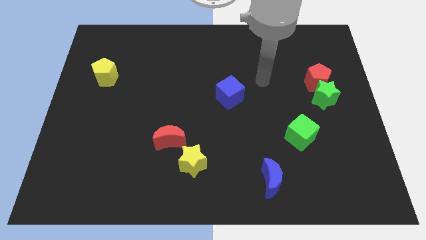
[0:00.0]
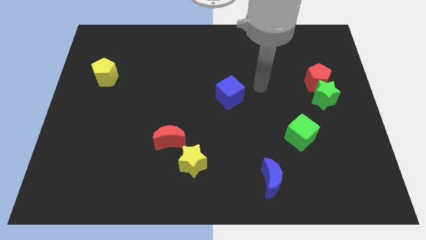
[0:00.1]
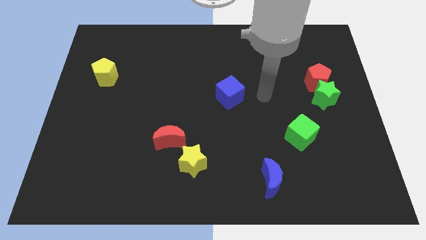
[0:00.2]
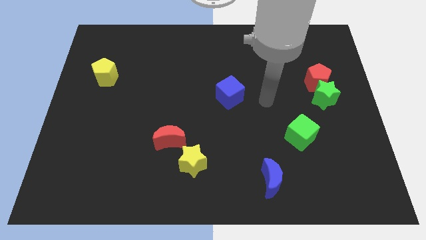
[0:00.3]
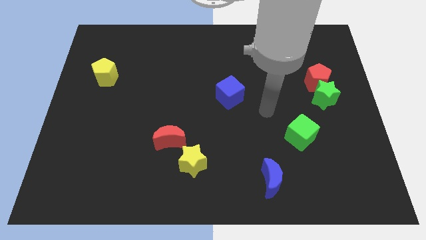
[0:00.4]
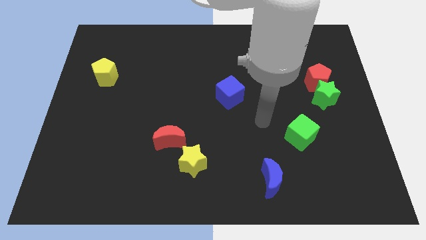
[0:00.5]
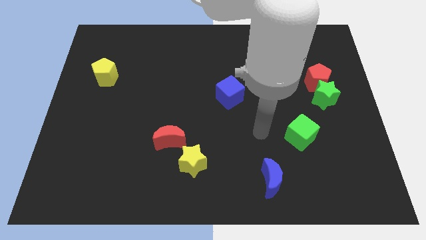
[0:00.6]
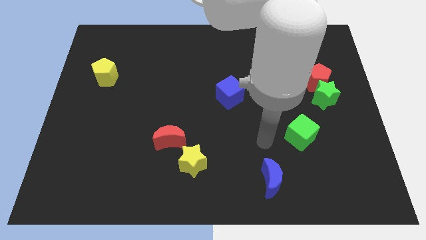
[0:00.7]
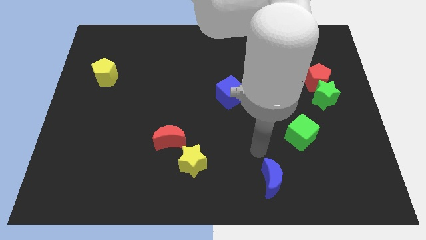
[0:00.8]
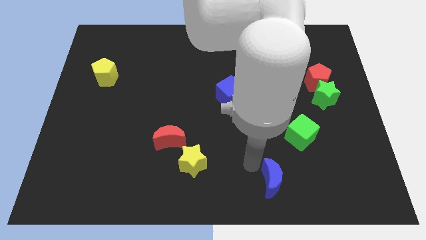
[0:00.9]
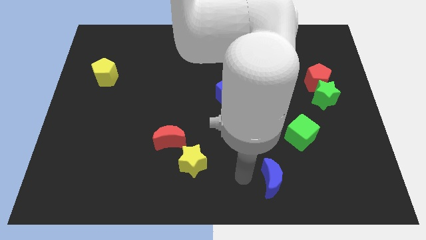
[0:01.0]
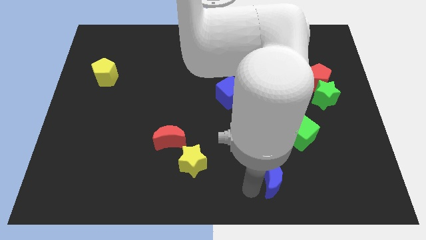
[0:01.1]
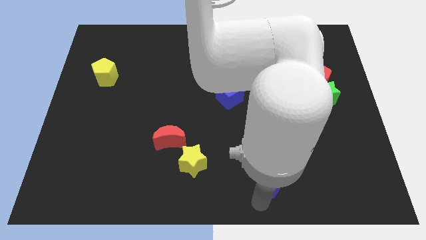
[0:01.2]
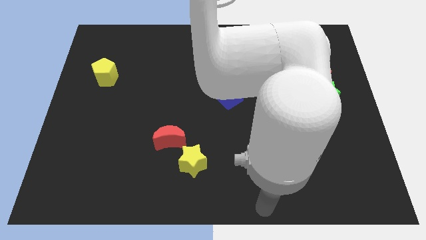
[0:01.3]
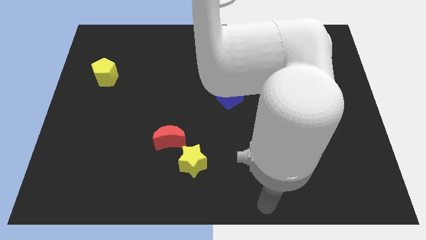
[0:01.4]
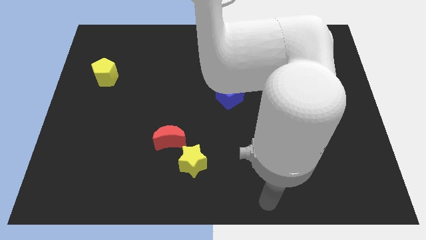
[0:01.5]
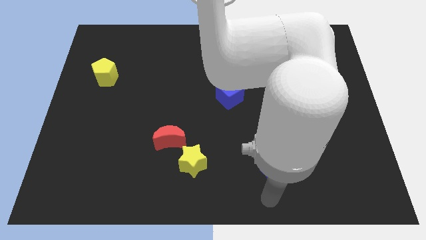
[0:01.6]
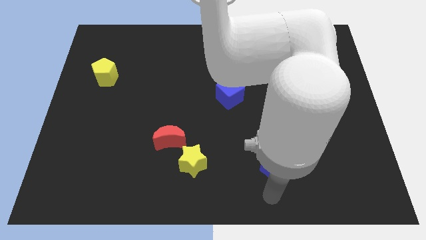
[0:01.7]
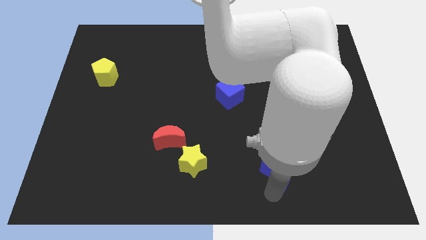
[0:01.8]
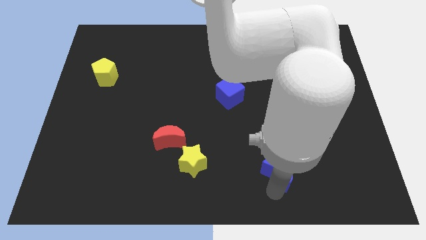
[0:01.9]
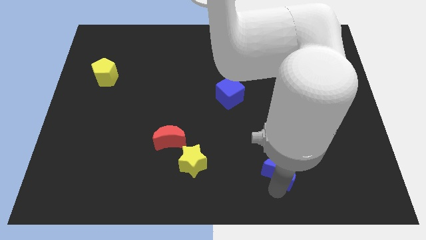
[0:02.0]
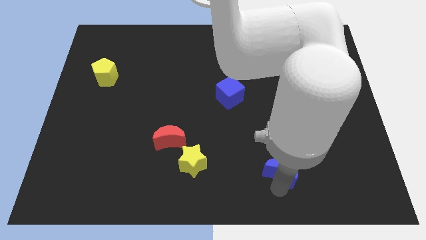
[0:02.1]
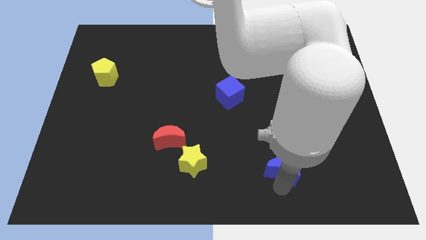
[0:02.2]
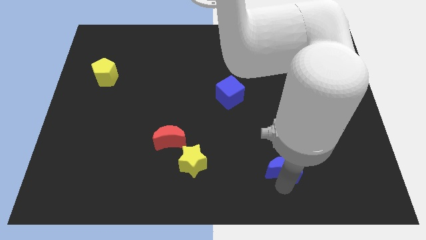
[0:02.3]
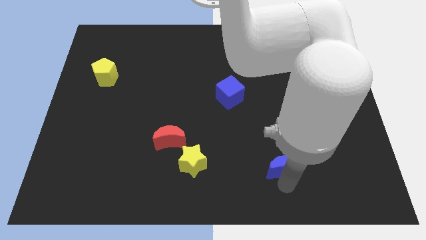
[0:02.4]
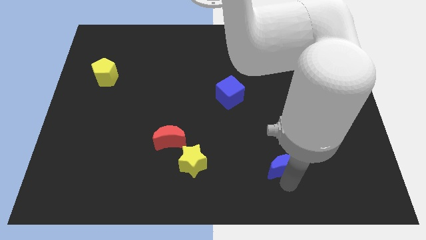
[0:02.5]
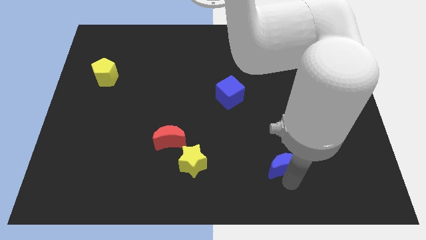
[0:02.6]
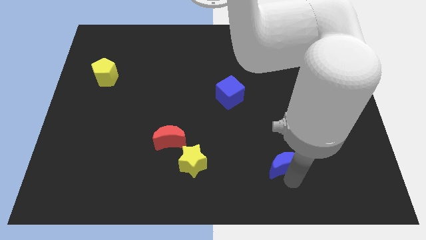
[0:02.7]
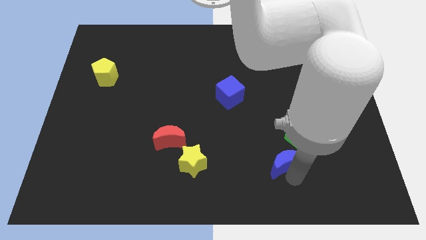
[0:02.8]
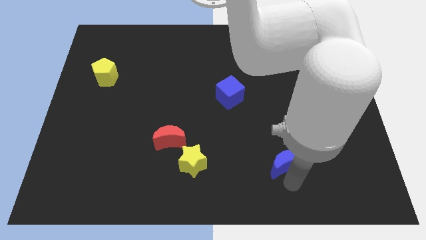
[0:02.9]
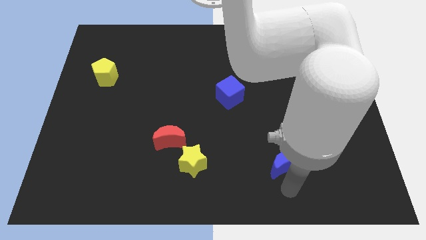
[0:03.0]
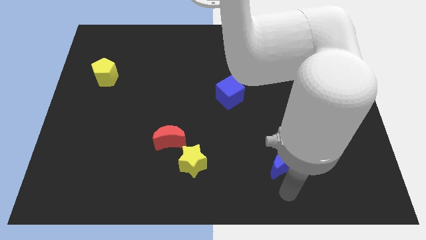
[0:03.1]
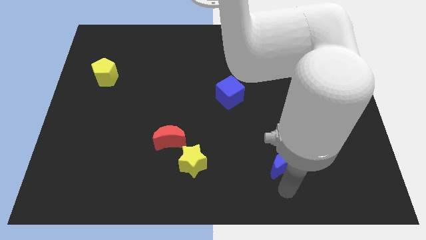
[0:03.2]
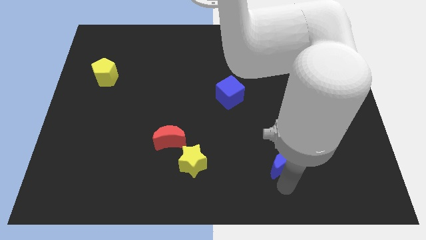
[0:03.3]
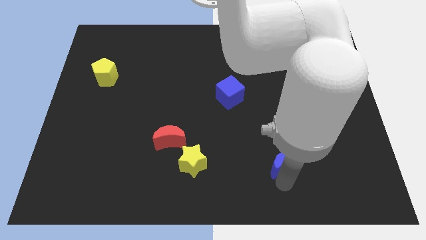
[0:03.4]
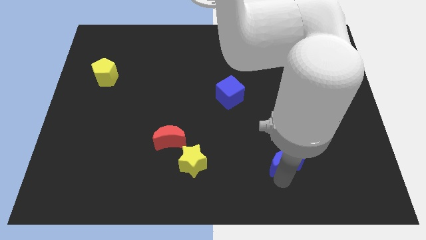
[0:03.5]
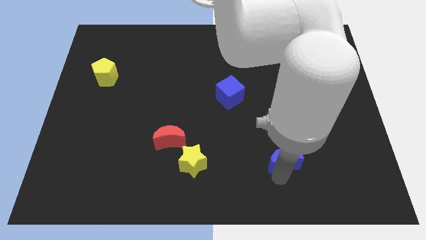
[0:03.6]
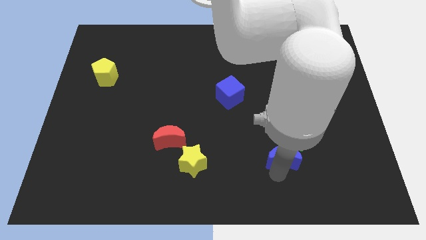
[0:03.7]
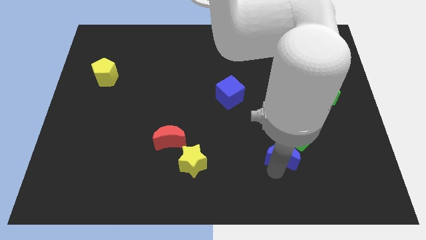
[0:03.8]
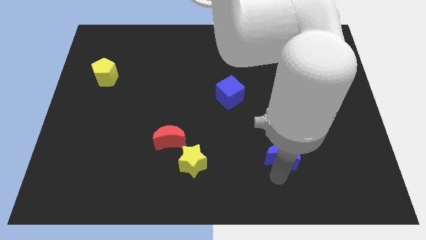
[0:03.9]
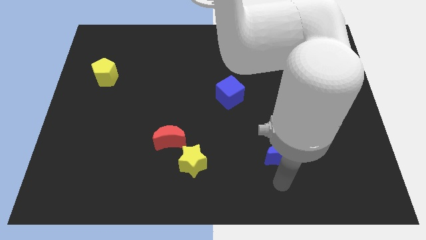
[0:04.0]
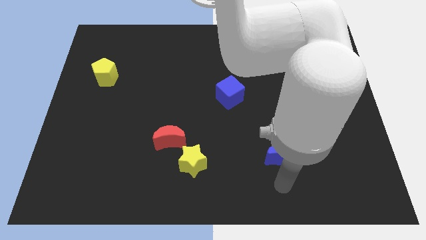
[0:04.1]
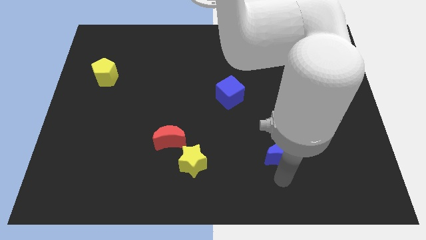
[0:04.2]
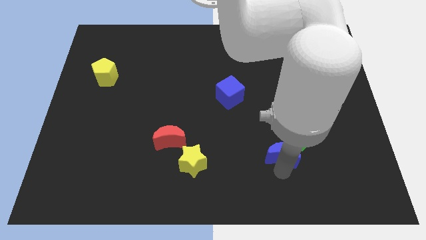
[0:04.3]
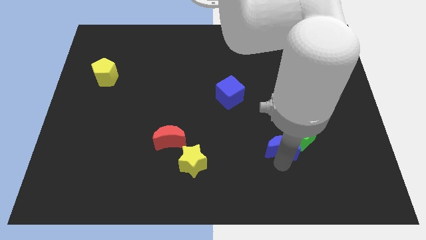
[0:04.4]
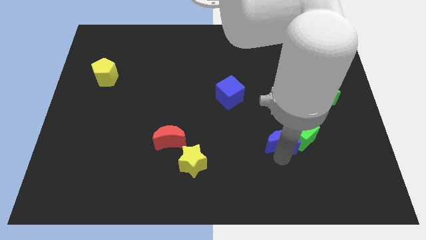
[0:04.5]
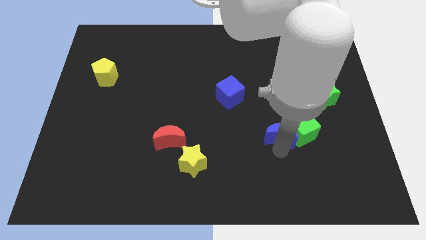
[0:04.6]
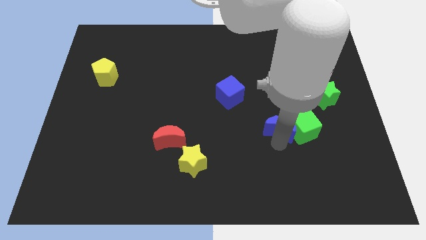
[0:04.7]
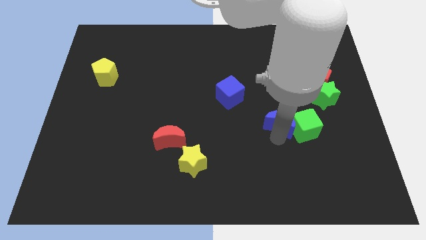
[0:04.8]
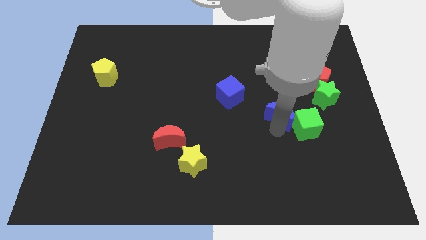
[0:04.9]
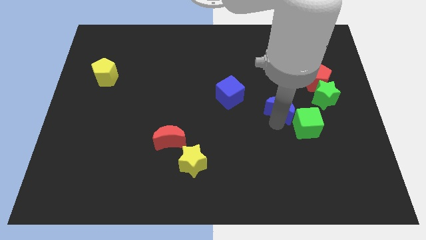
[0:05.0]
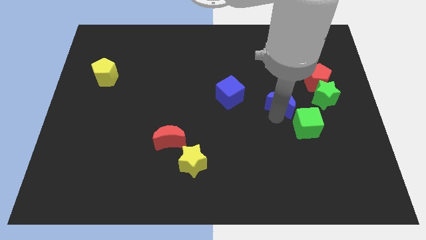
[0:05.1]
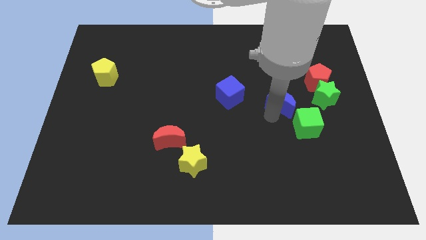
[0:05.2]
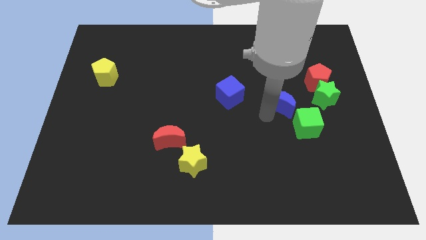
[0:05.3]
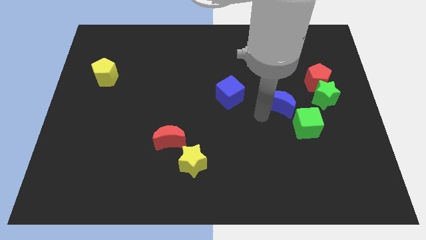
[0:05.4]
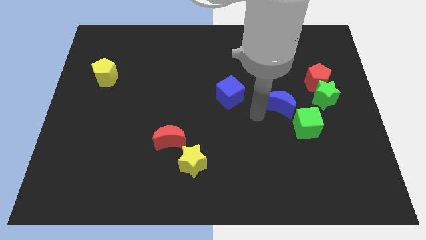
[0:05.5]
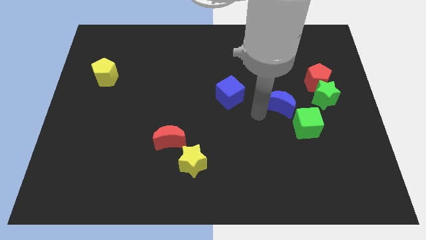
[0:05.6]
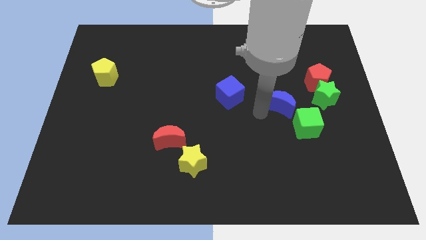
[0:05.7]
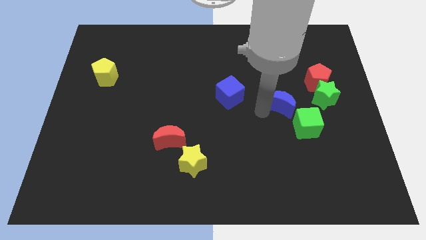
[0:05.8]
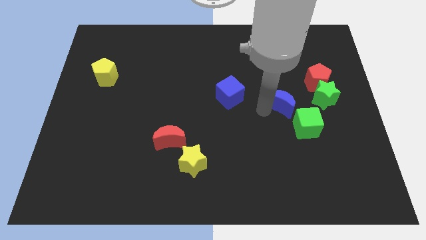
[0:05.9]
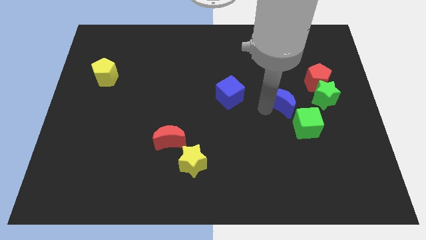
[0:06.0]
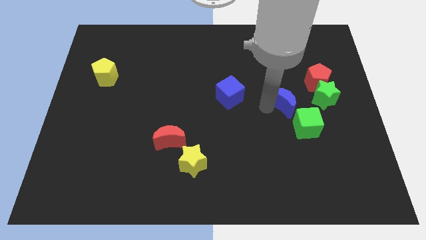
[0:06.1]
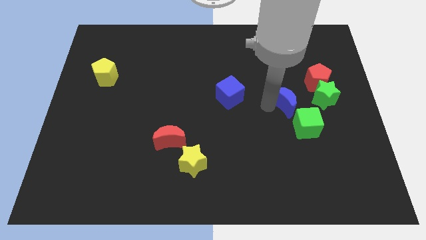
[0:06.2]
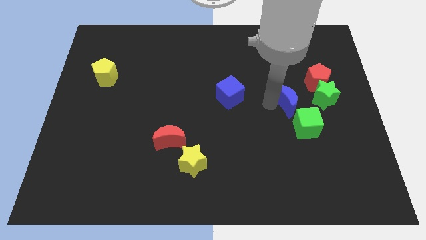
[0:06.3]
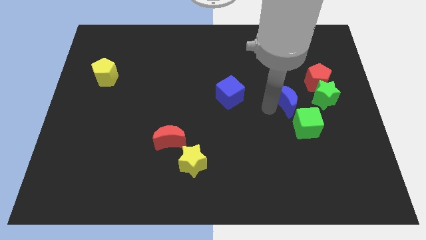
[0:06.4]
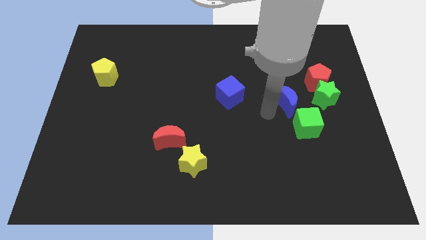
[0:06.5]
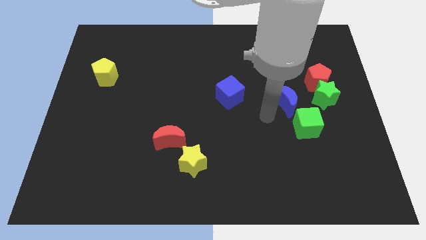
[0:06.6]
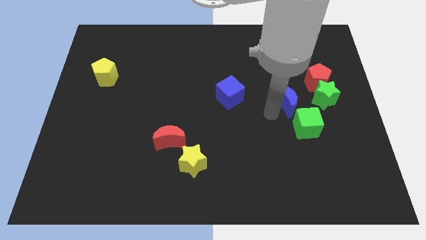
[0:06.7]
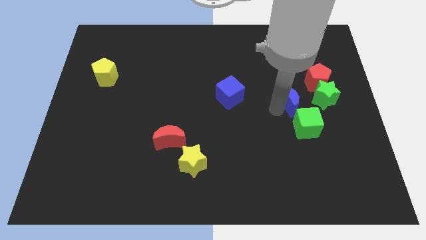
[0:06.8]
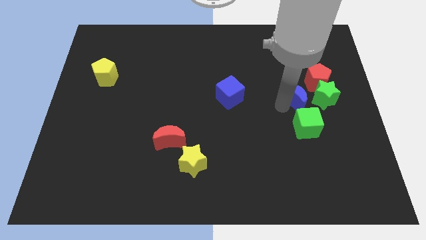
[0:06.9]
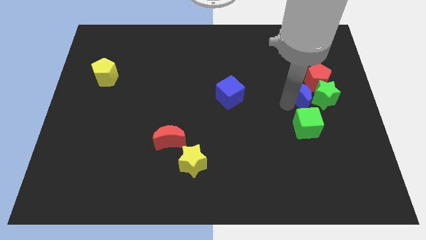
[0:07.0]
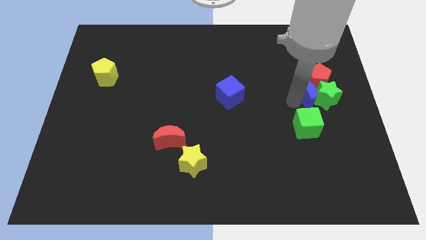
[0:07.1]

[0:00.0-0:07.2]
slide the blue moon close to the red pentagon
